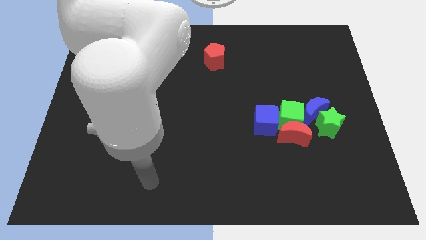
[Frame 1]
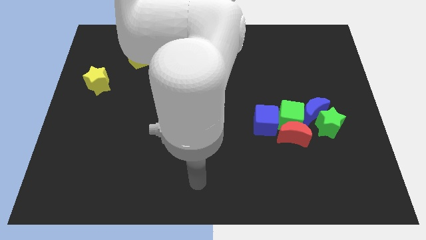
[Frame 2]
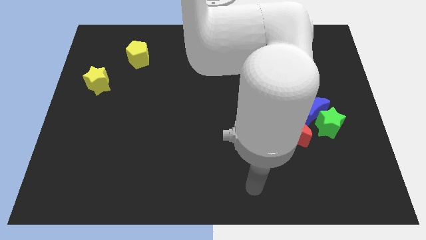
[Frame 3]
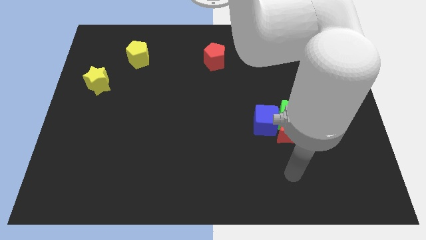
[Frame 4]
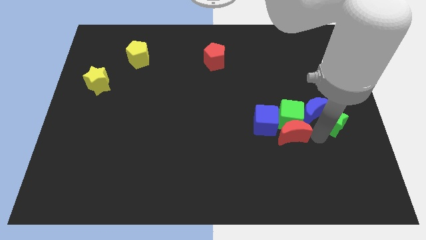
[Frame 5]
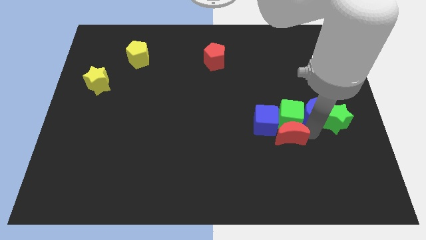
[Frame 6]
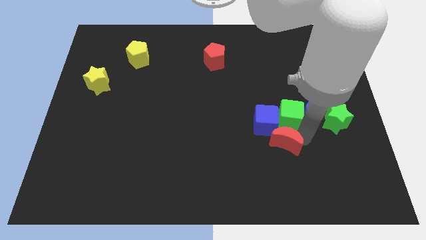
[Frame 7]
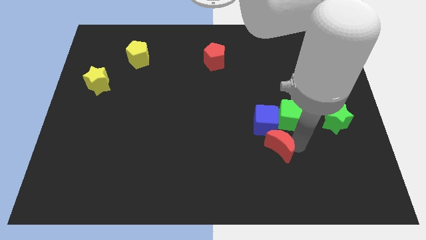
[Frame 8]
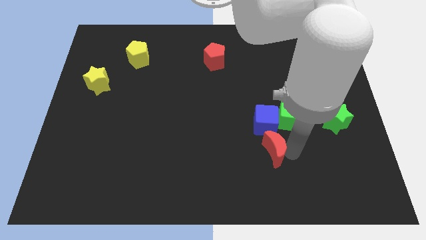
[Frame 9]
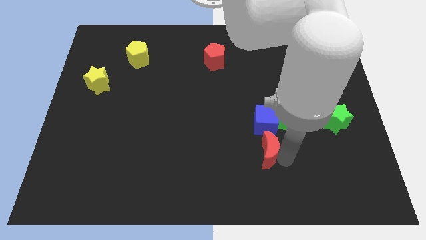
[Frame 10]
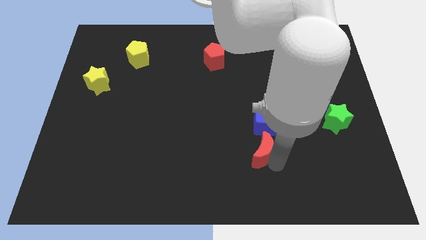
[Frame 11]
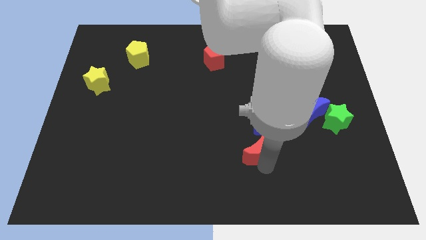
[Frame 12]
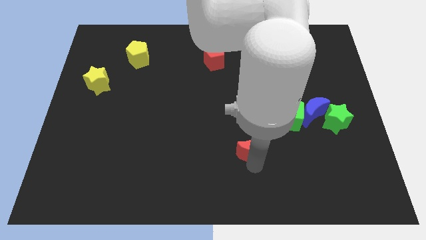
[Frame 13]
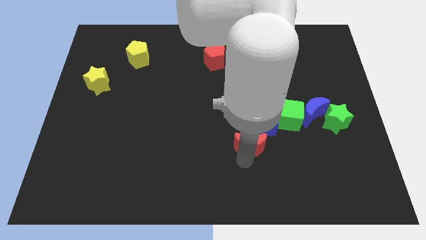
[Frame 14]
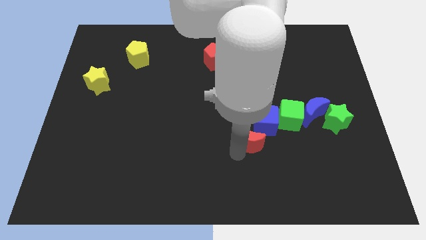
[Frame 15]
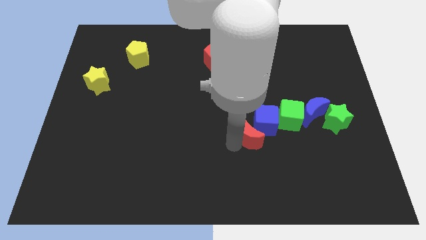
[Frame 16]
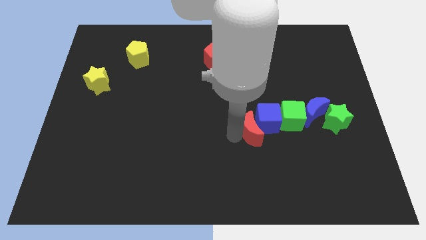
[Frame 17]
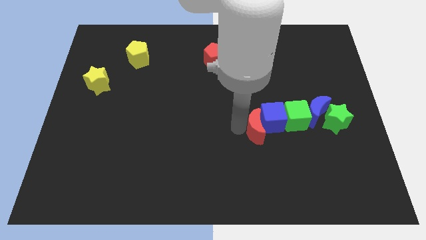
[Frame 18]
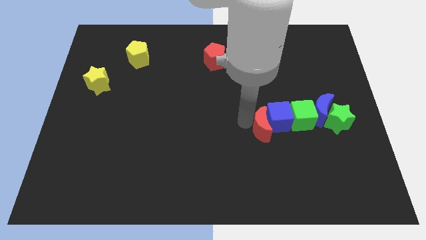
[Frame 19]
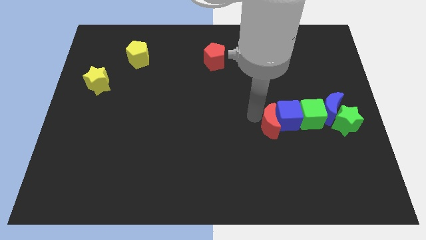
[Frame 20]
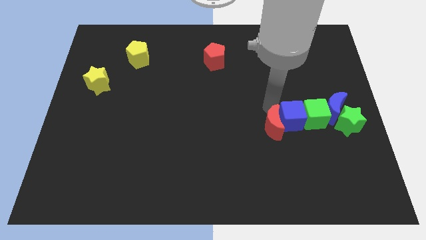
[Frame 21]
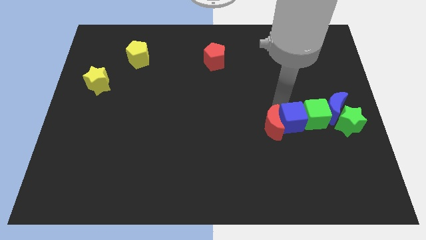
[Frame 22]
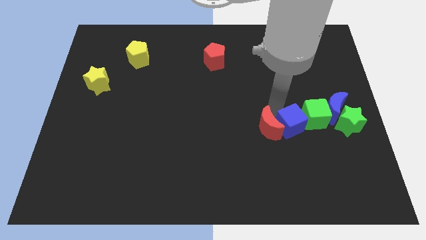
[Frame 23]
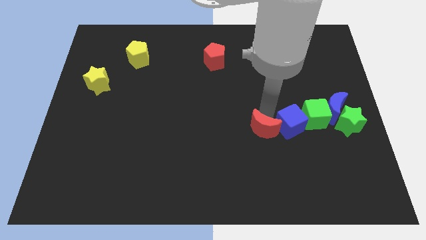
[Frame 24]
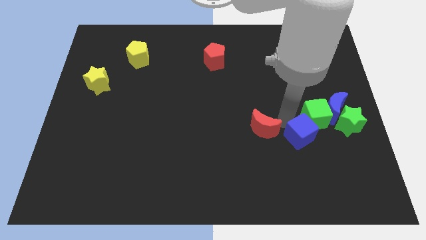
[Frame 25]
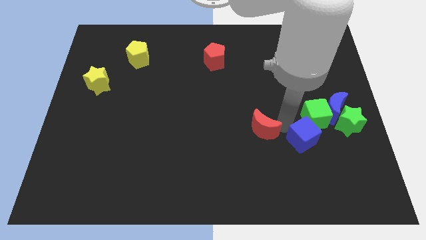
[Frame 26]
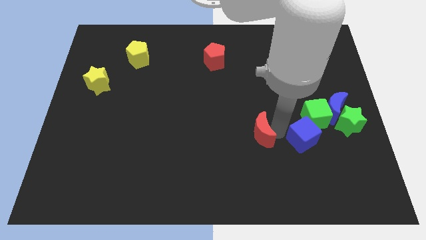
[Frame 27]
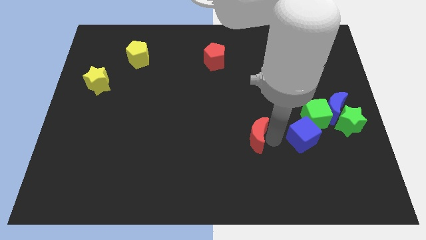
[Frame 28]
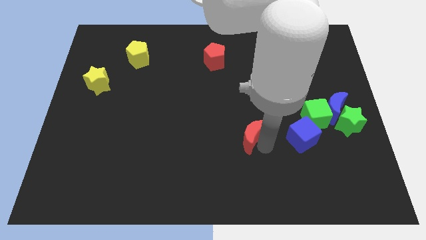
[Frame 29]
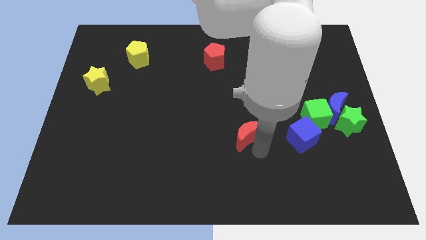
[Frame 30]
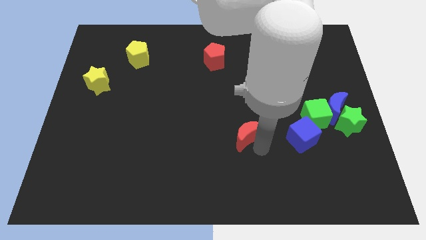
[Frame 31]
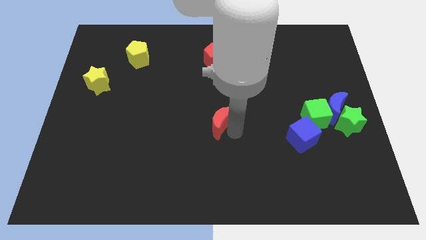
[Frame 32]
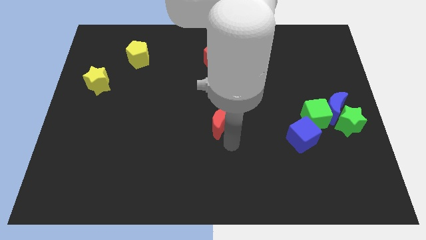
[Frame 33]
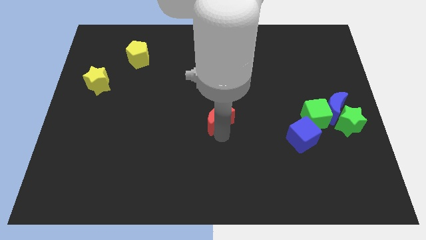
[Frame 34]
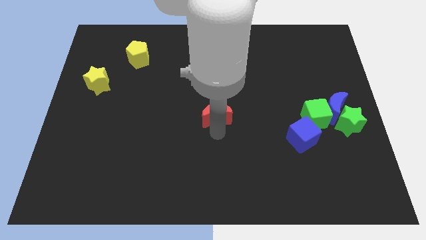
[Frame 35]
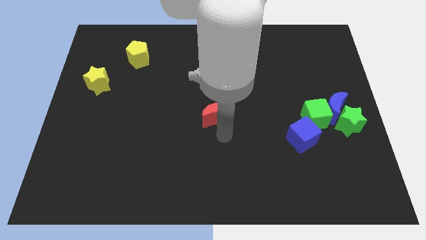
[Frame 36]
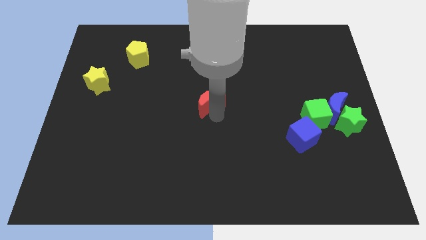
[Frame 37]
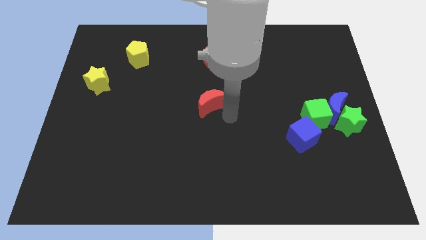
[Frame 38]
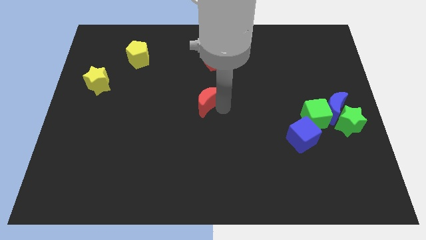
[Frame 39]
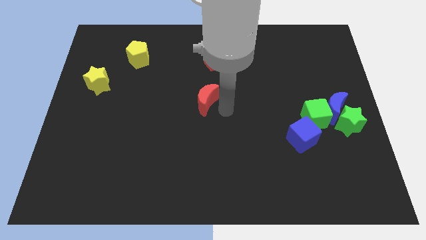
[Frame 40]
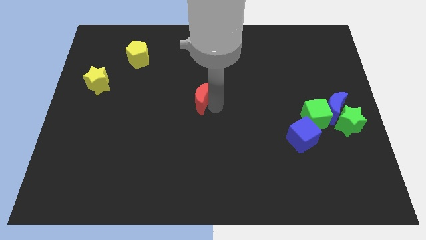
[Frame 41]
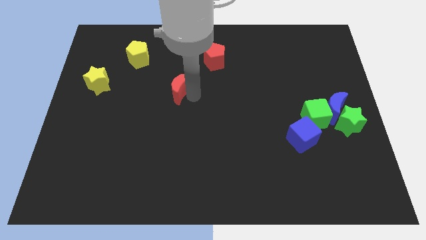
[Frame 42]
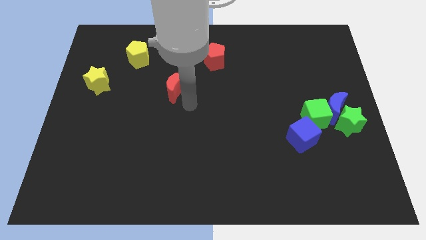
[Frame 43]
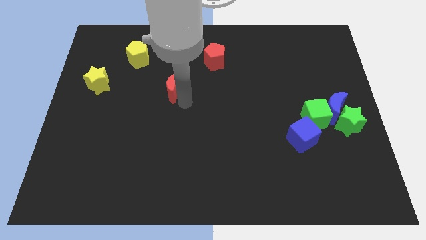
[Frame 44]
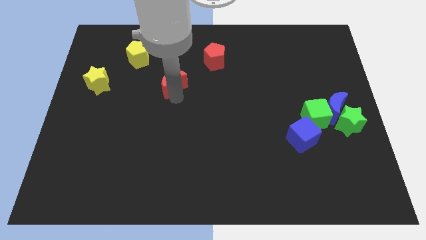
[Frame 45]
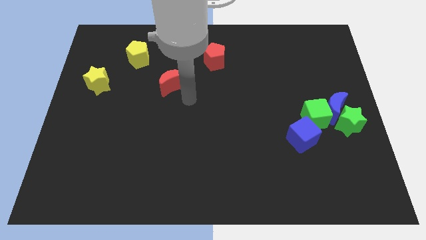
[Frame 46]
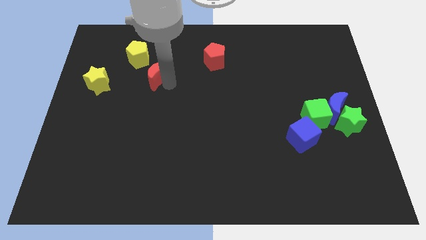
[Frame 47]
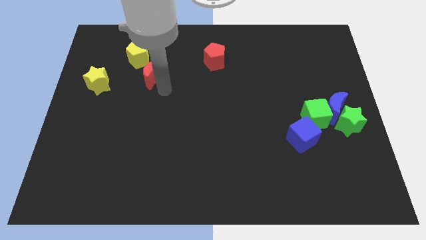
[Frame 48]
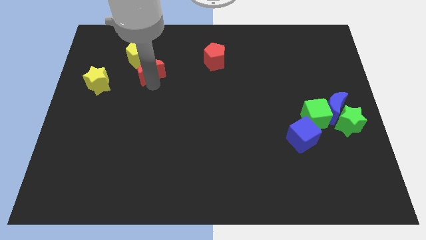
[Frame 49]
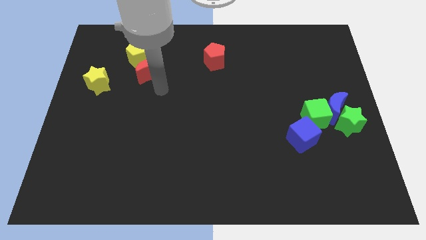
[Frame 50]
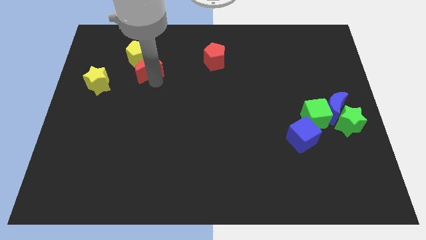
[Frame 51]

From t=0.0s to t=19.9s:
push the red moon close to the yellow pentagon

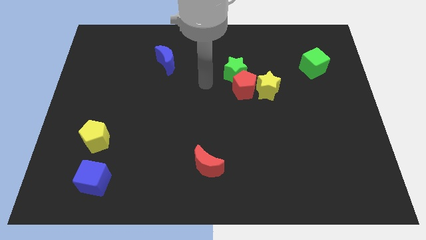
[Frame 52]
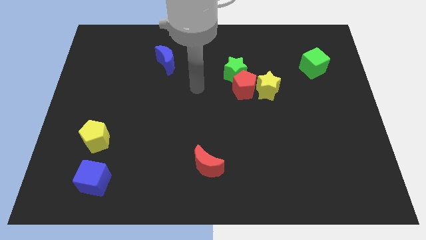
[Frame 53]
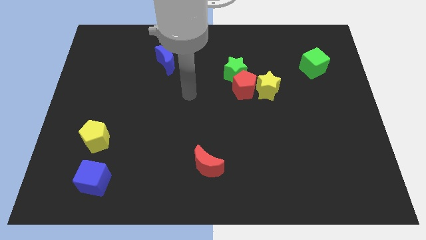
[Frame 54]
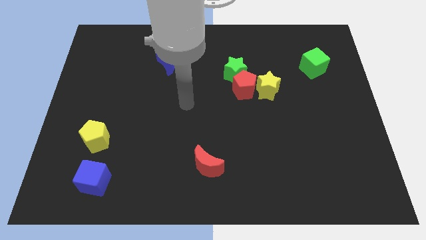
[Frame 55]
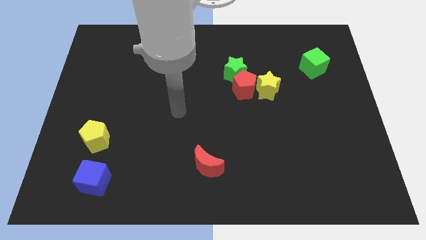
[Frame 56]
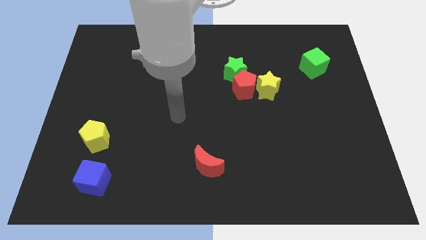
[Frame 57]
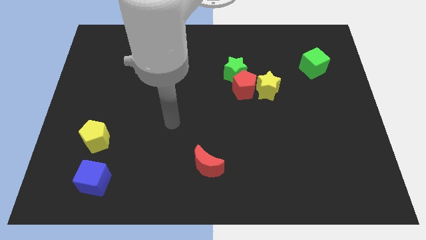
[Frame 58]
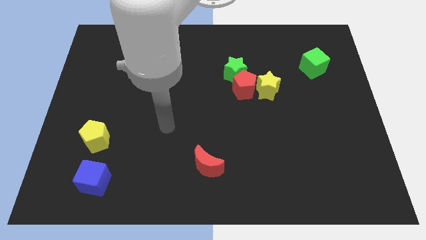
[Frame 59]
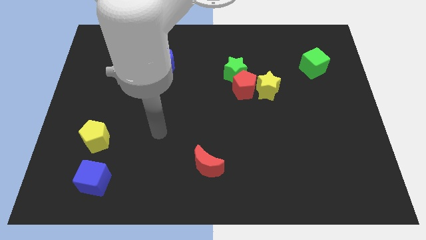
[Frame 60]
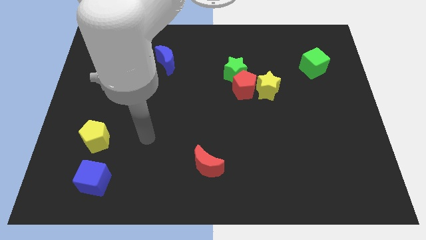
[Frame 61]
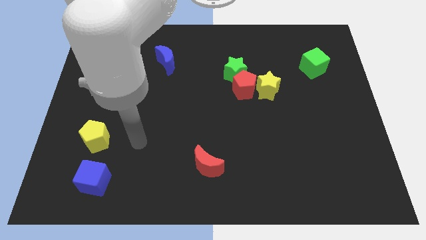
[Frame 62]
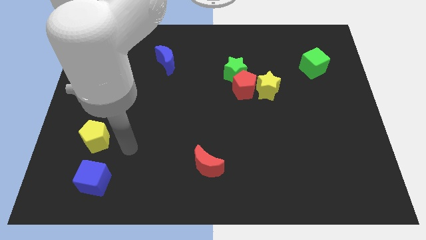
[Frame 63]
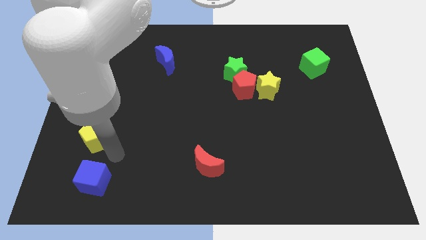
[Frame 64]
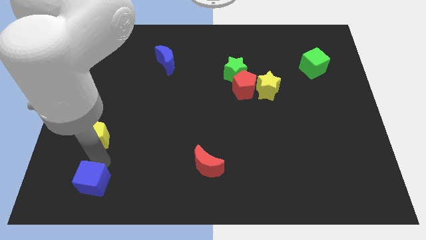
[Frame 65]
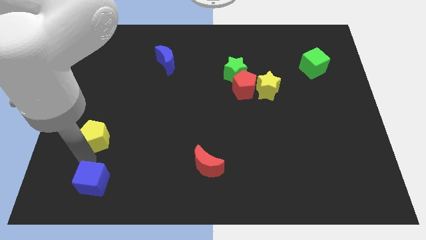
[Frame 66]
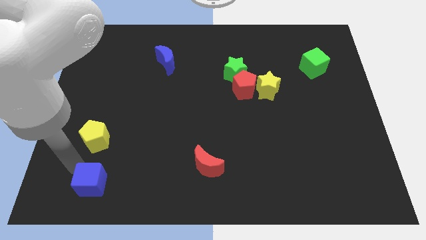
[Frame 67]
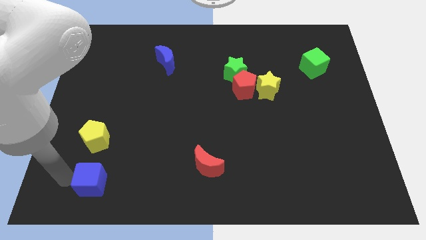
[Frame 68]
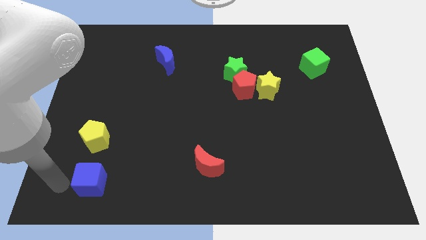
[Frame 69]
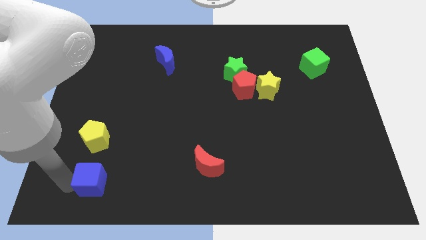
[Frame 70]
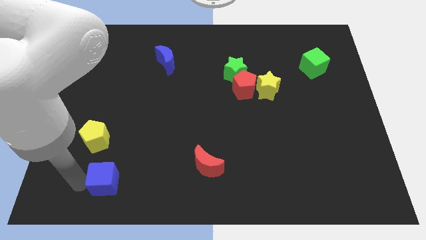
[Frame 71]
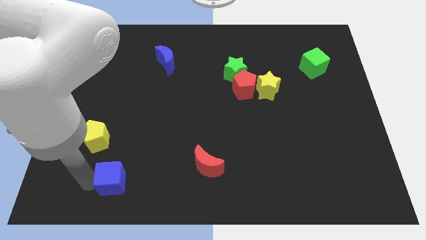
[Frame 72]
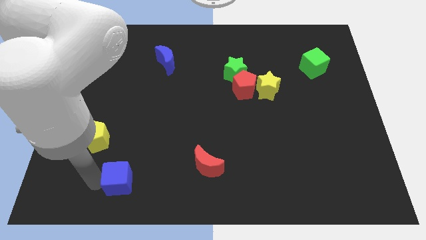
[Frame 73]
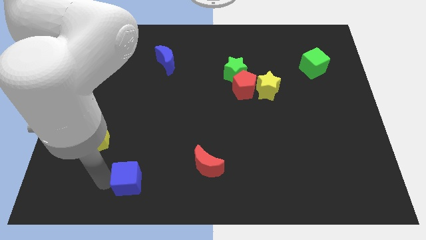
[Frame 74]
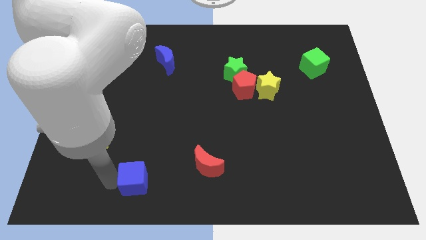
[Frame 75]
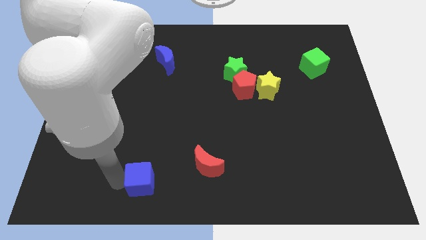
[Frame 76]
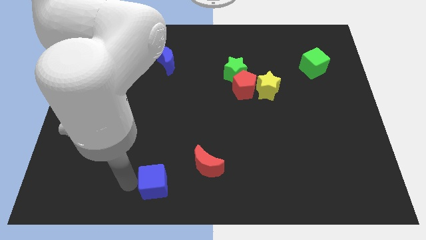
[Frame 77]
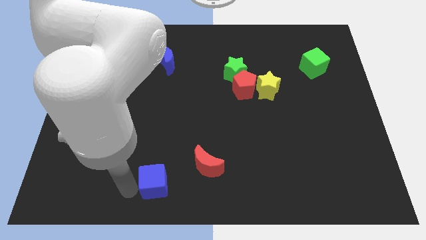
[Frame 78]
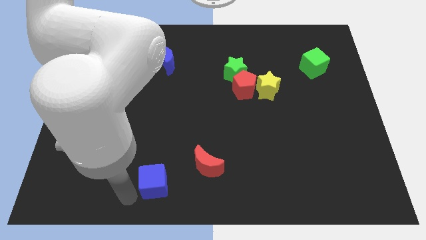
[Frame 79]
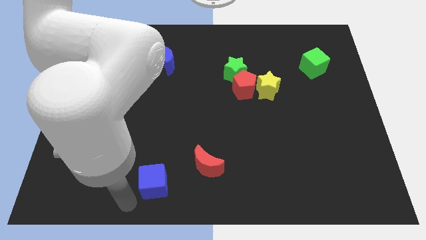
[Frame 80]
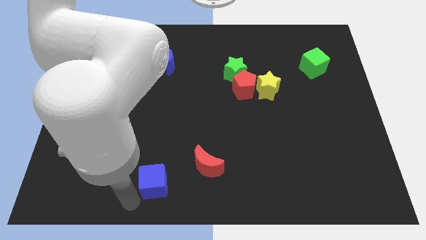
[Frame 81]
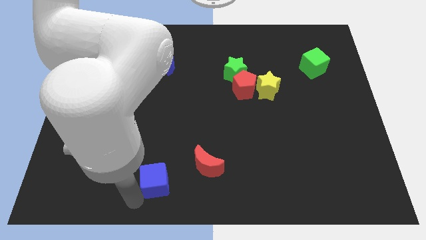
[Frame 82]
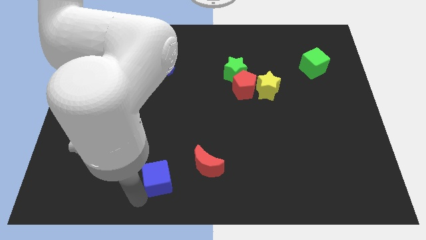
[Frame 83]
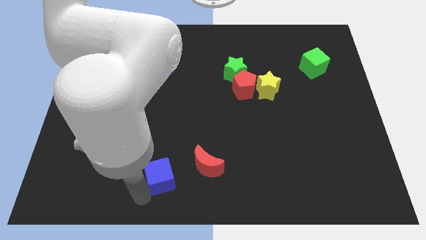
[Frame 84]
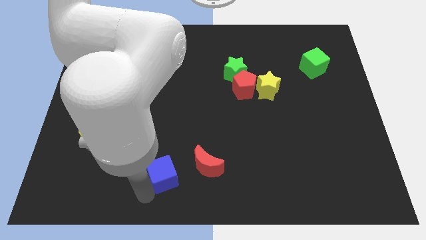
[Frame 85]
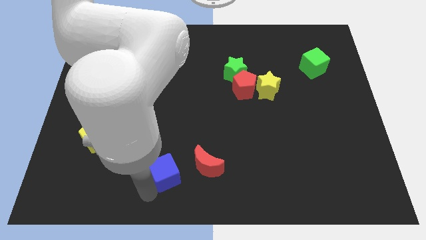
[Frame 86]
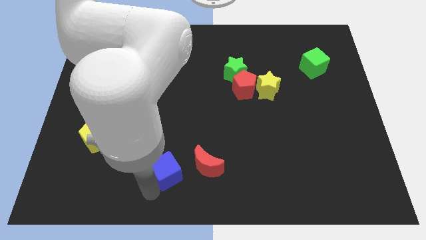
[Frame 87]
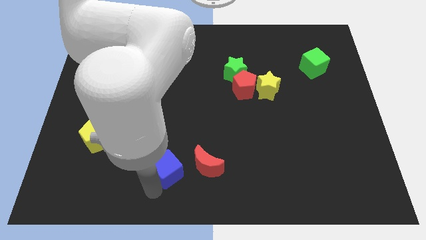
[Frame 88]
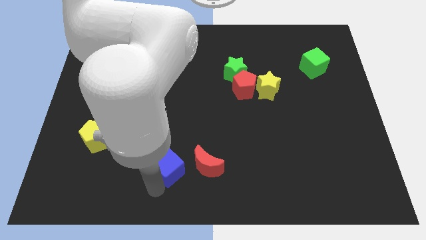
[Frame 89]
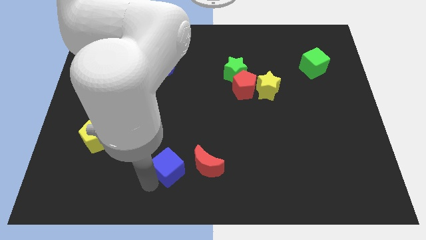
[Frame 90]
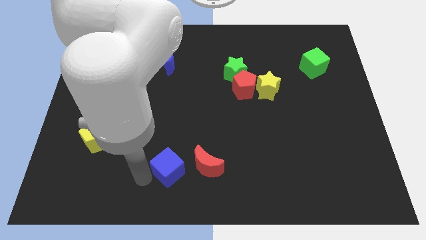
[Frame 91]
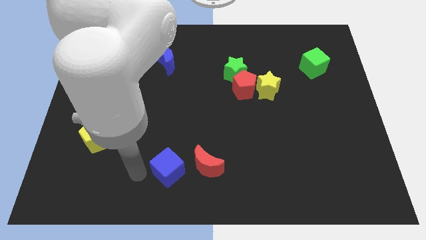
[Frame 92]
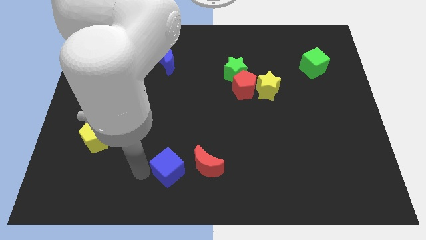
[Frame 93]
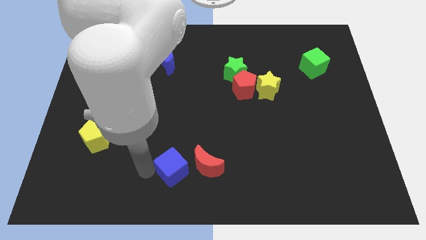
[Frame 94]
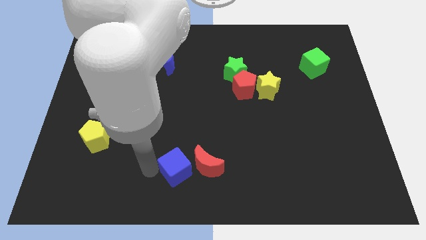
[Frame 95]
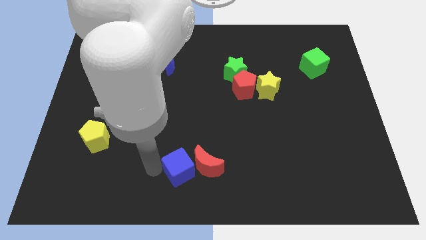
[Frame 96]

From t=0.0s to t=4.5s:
put the blue cube to the red moon
